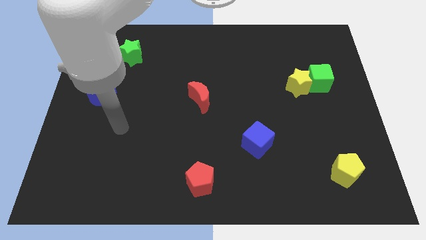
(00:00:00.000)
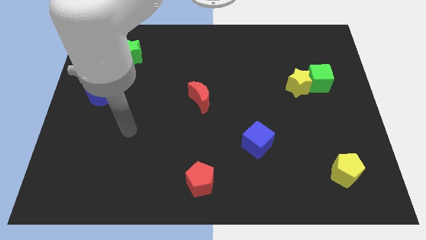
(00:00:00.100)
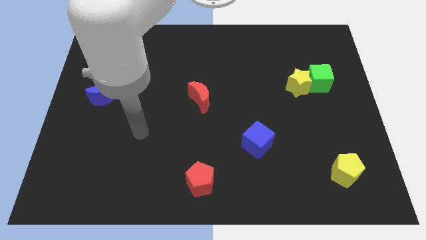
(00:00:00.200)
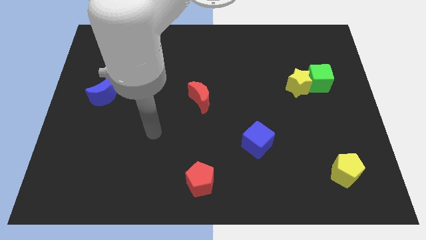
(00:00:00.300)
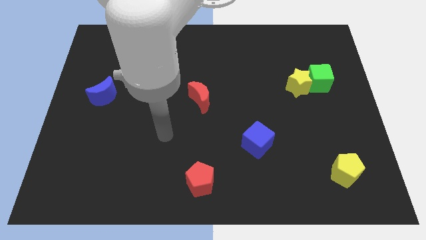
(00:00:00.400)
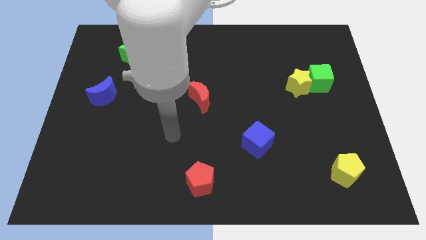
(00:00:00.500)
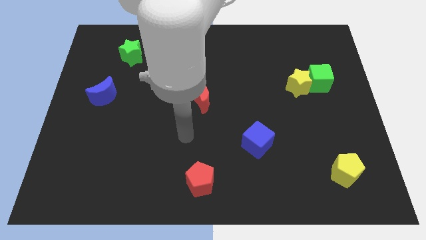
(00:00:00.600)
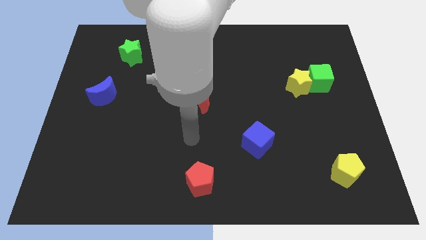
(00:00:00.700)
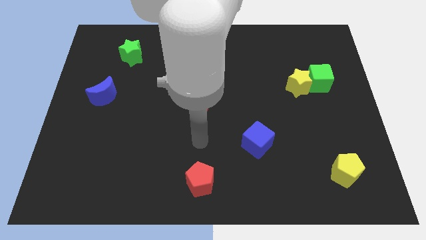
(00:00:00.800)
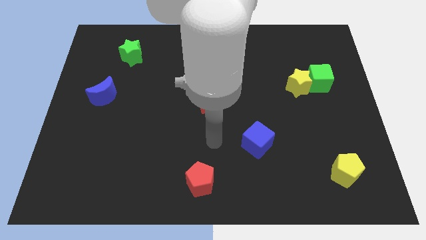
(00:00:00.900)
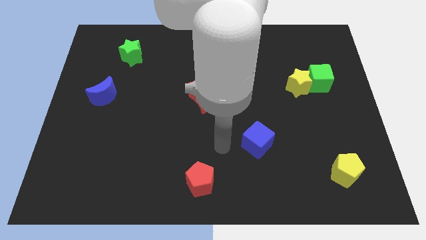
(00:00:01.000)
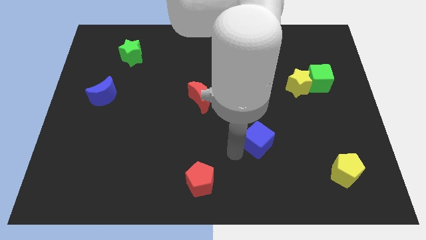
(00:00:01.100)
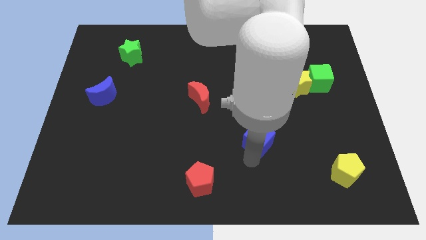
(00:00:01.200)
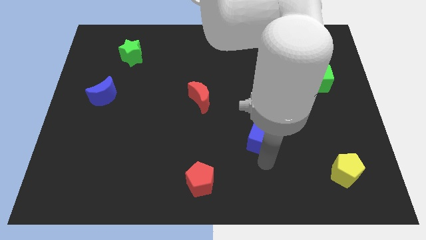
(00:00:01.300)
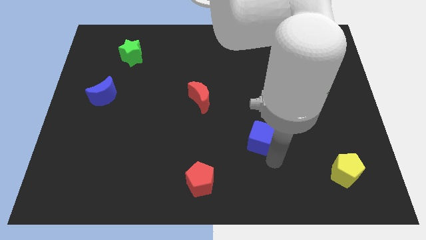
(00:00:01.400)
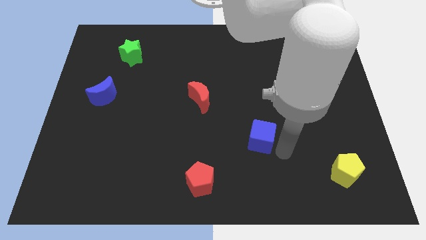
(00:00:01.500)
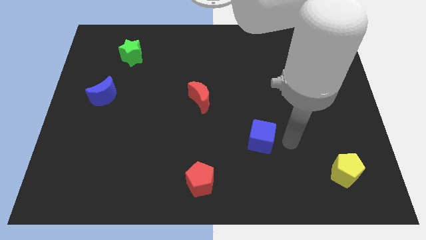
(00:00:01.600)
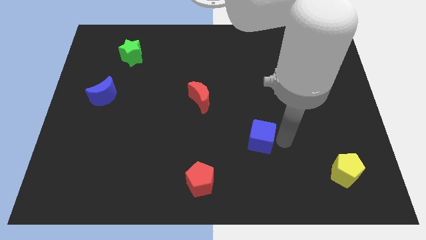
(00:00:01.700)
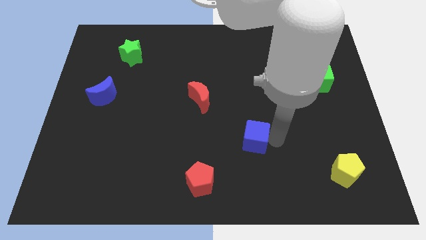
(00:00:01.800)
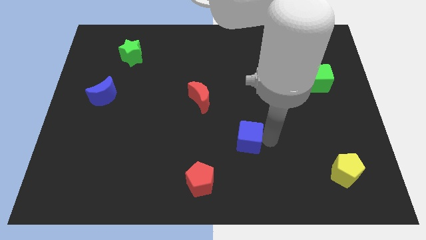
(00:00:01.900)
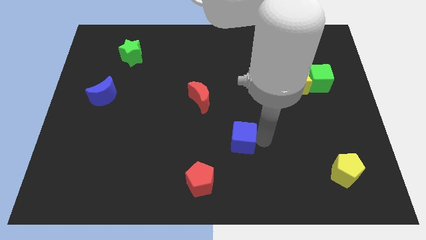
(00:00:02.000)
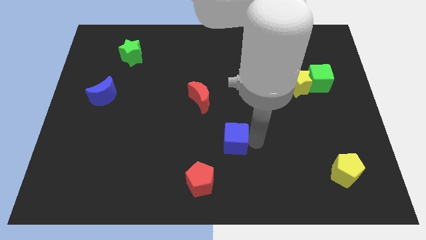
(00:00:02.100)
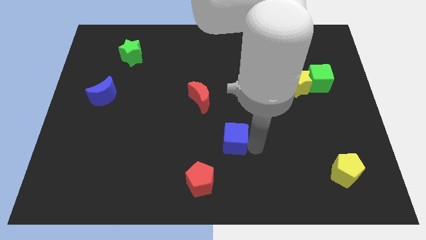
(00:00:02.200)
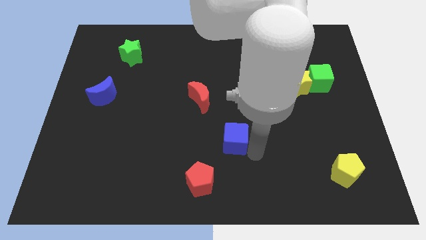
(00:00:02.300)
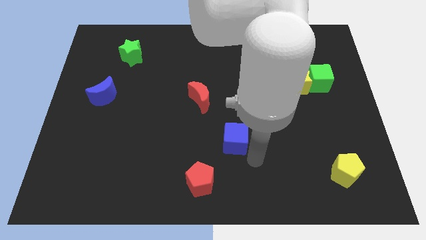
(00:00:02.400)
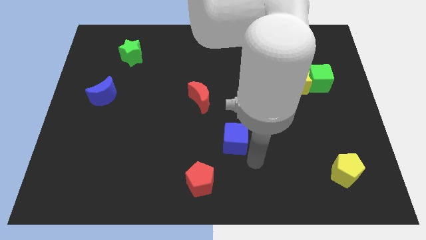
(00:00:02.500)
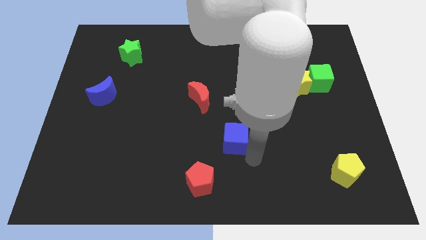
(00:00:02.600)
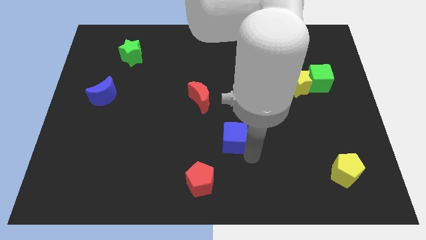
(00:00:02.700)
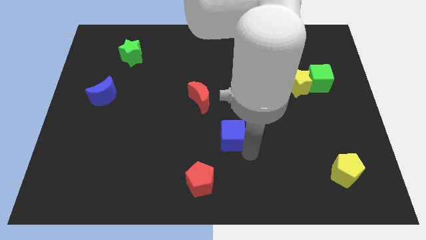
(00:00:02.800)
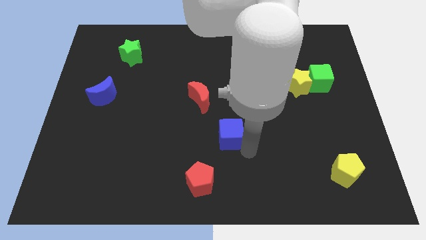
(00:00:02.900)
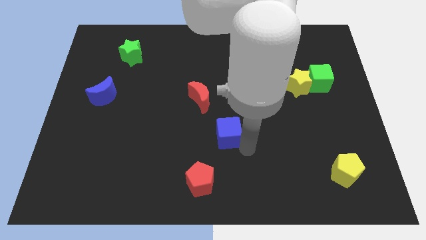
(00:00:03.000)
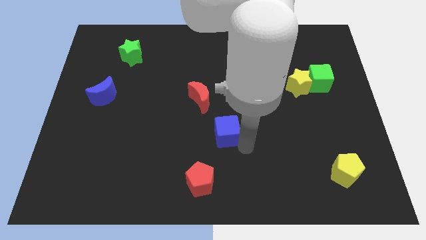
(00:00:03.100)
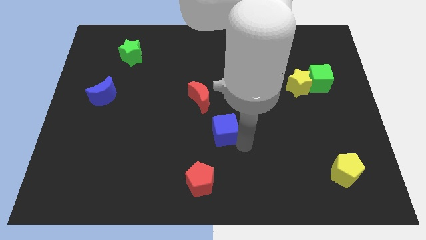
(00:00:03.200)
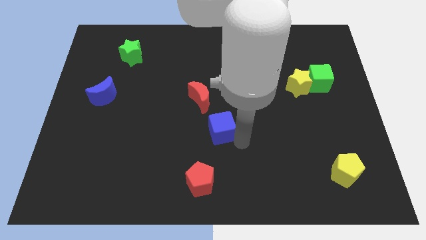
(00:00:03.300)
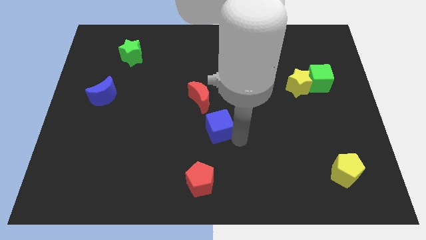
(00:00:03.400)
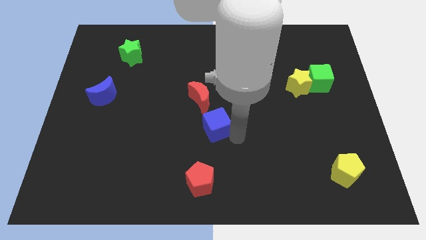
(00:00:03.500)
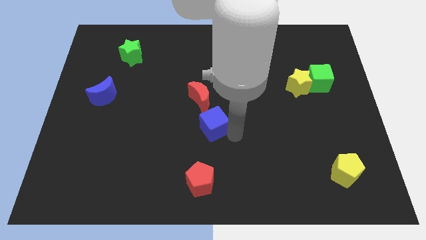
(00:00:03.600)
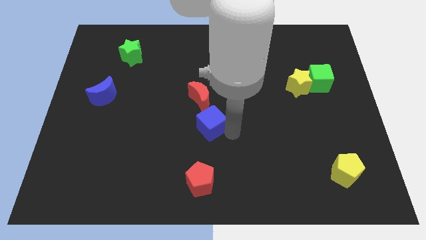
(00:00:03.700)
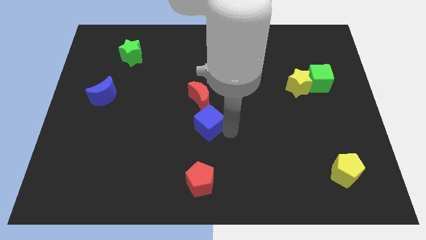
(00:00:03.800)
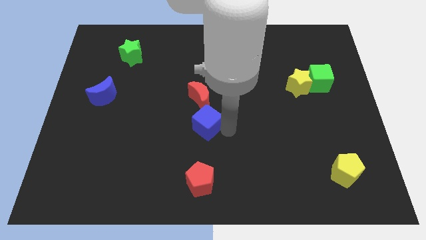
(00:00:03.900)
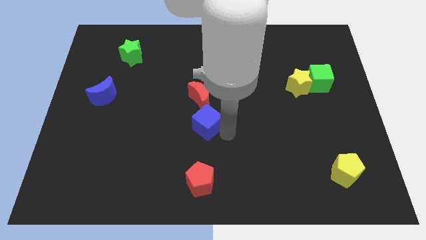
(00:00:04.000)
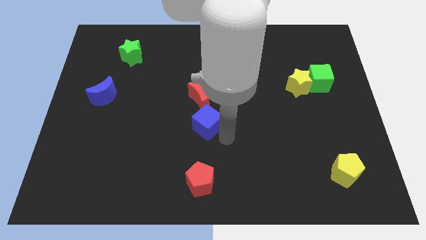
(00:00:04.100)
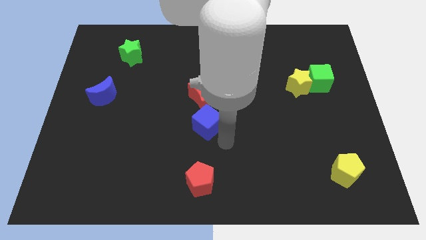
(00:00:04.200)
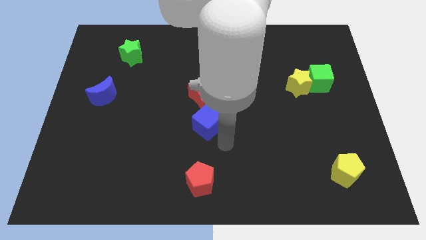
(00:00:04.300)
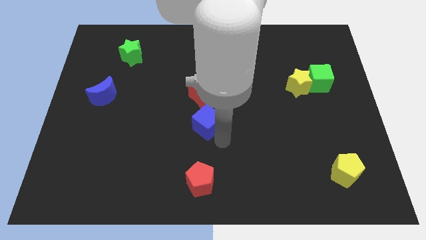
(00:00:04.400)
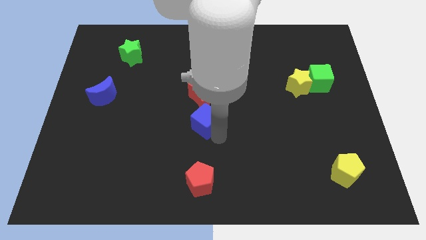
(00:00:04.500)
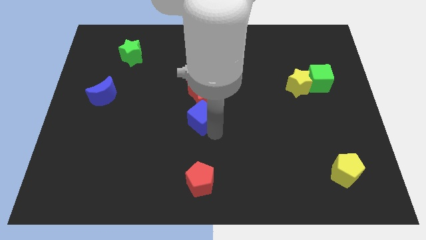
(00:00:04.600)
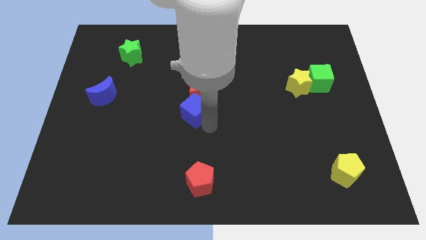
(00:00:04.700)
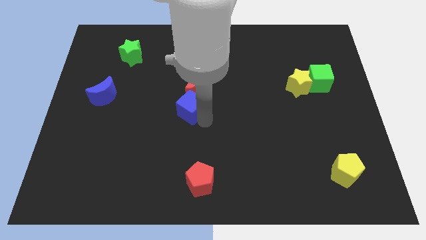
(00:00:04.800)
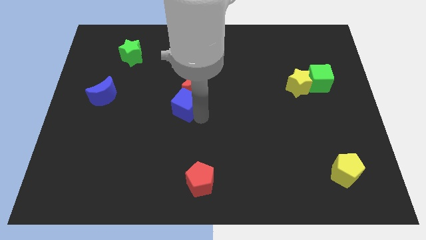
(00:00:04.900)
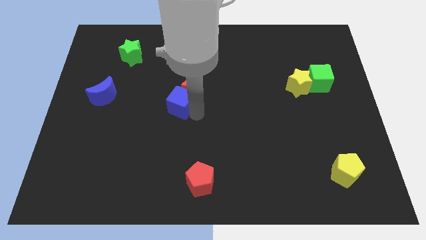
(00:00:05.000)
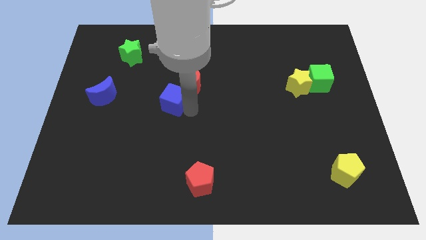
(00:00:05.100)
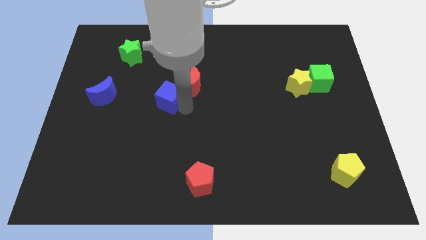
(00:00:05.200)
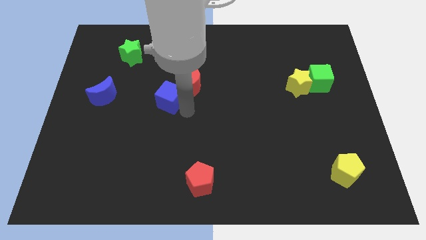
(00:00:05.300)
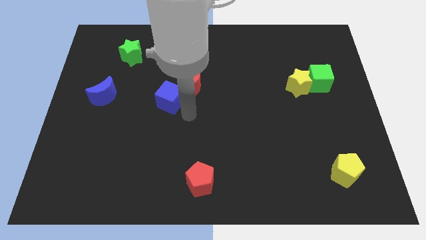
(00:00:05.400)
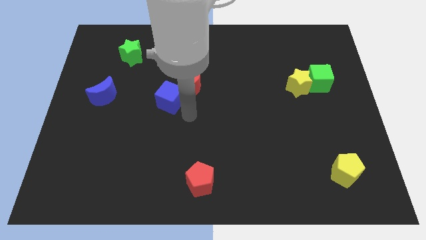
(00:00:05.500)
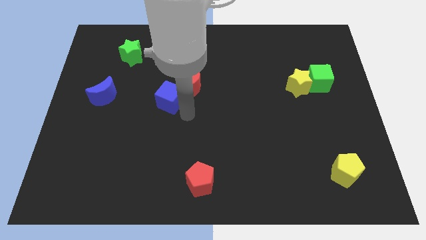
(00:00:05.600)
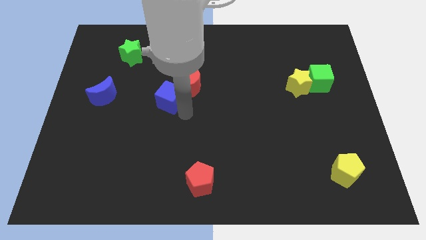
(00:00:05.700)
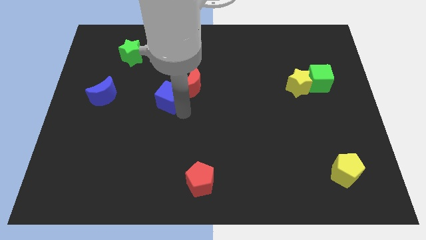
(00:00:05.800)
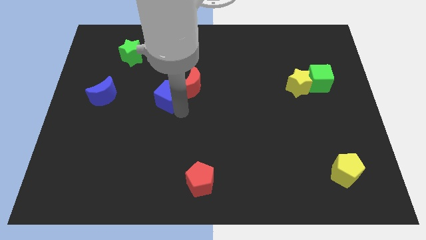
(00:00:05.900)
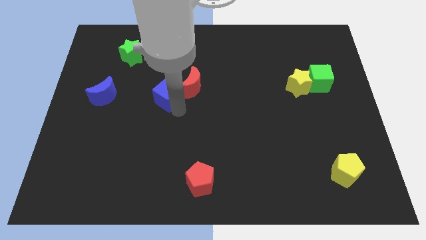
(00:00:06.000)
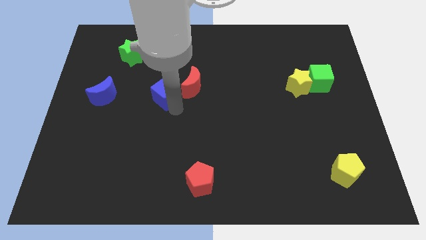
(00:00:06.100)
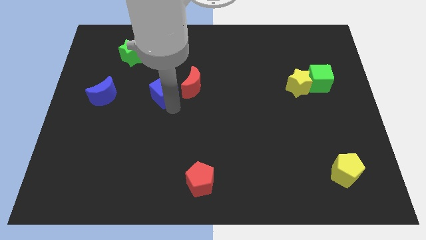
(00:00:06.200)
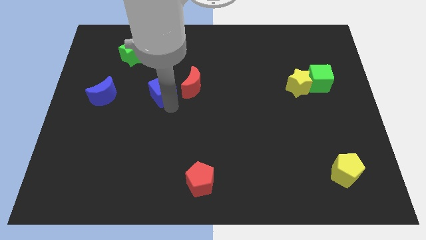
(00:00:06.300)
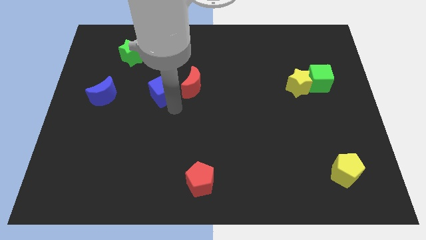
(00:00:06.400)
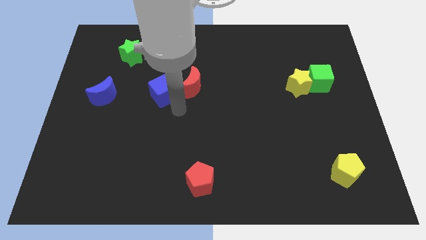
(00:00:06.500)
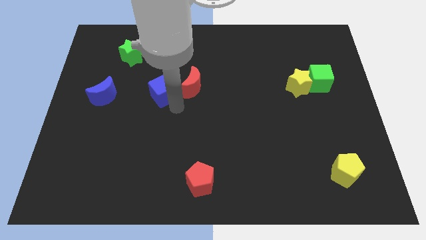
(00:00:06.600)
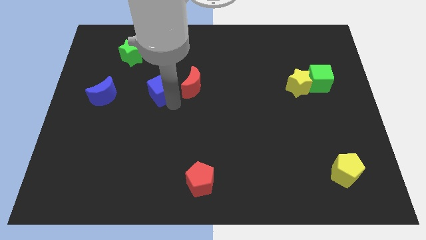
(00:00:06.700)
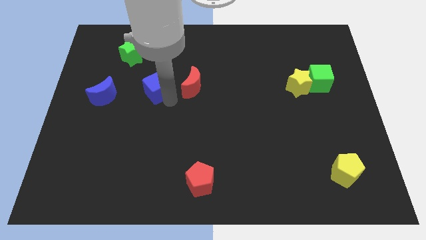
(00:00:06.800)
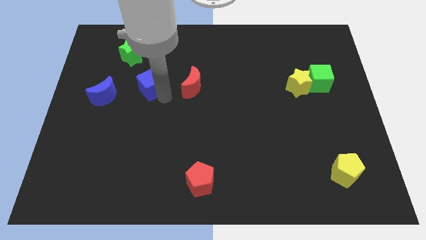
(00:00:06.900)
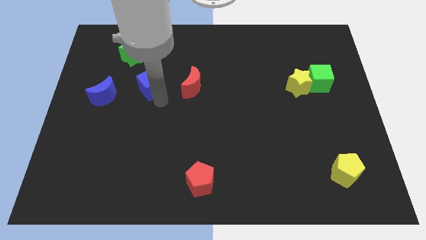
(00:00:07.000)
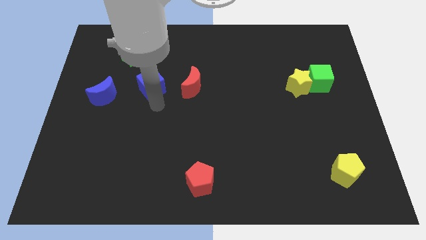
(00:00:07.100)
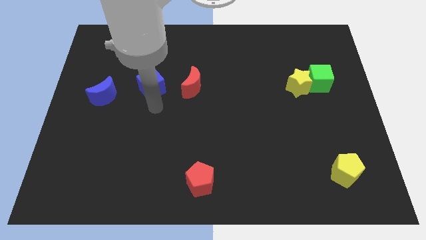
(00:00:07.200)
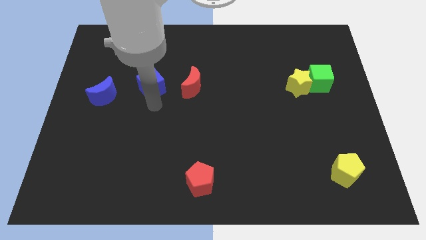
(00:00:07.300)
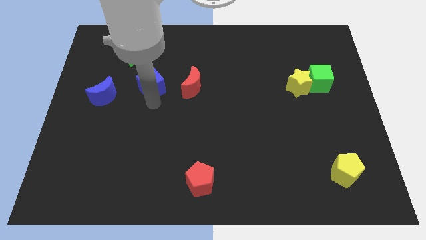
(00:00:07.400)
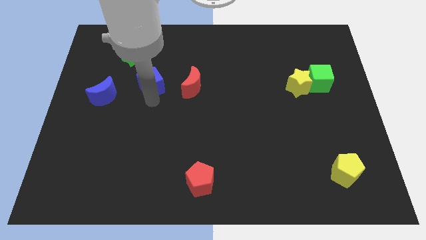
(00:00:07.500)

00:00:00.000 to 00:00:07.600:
put the blue cube diagonally down and to the right of the green star

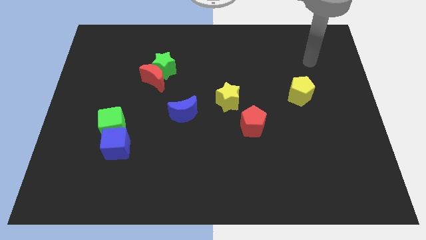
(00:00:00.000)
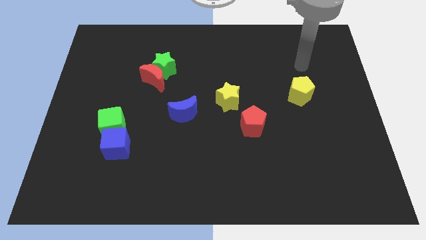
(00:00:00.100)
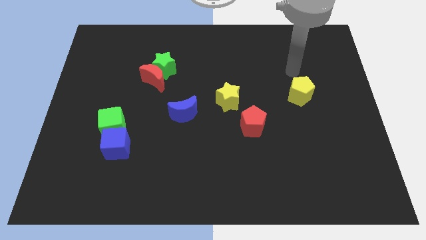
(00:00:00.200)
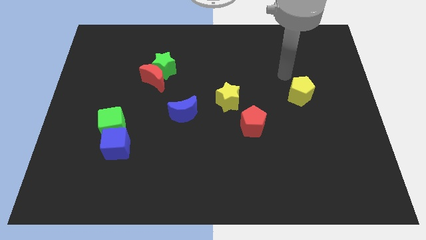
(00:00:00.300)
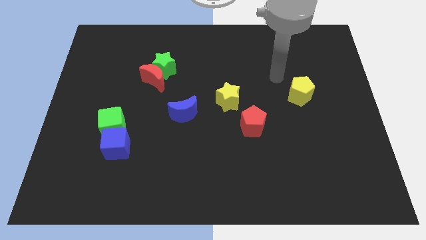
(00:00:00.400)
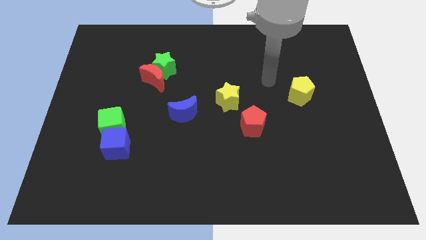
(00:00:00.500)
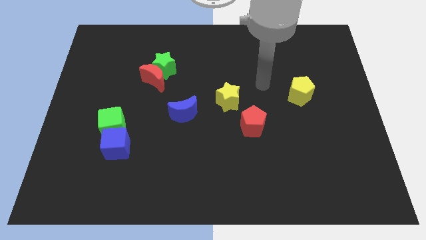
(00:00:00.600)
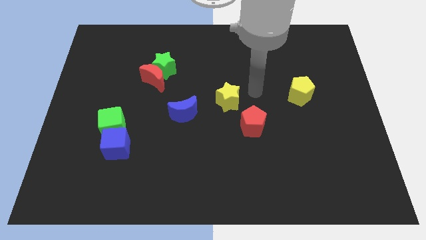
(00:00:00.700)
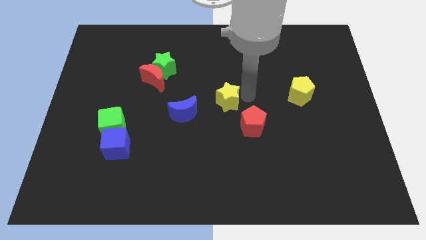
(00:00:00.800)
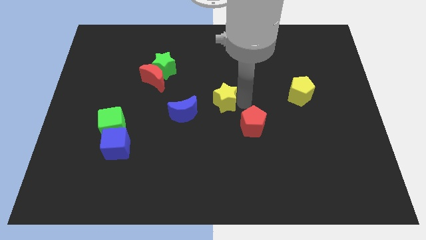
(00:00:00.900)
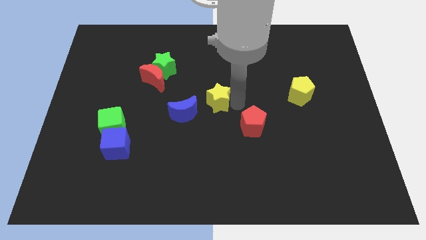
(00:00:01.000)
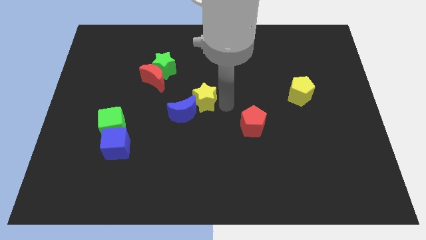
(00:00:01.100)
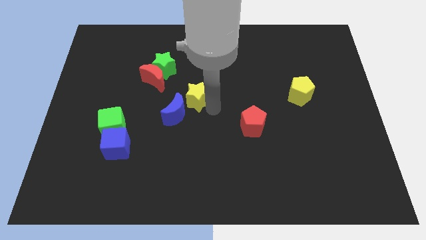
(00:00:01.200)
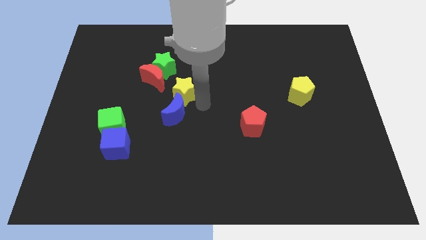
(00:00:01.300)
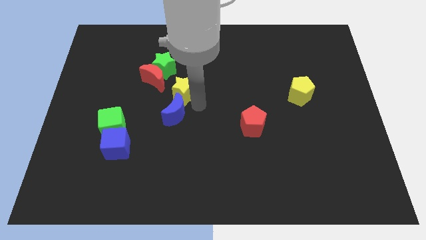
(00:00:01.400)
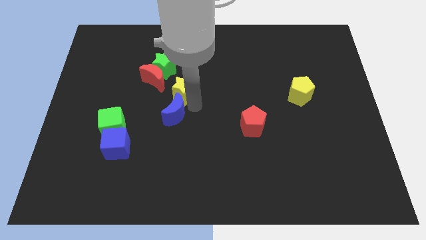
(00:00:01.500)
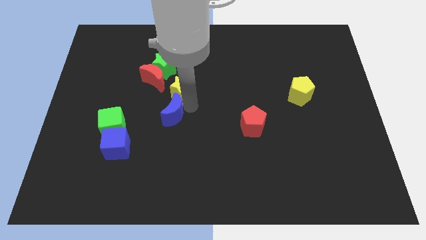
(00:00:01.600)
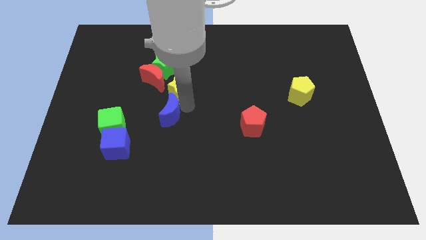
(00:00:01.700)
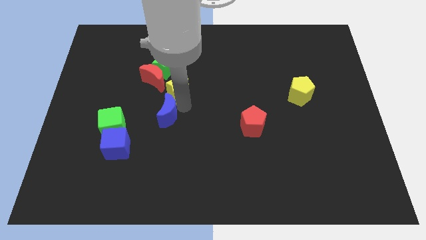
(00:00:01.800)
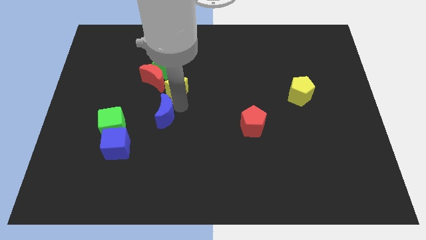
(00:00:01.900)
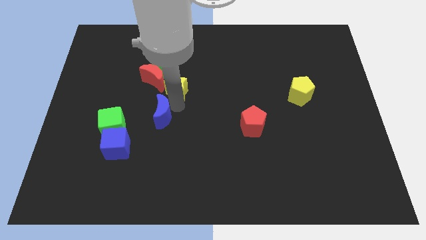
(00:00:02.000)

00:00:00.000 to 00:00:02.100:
put the blue moon to the top right of the blue cube
